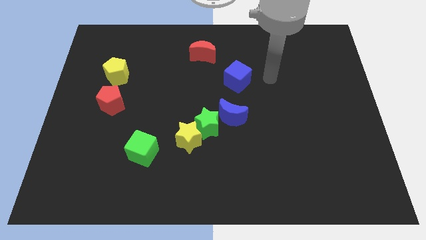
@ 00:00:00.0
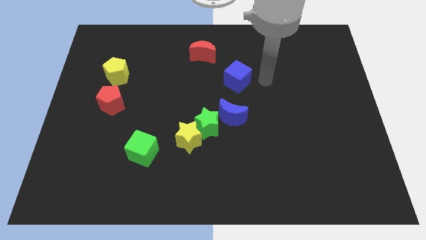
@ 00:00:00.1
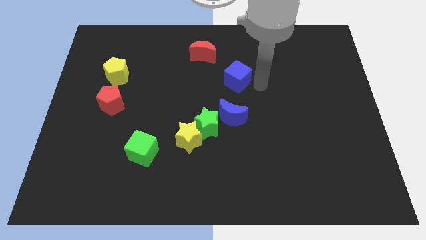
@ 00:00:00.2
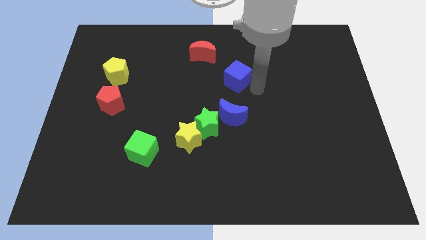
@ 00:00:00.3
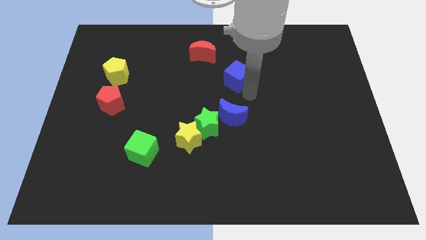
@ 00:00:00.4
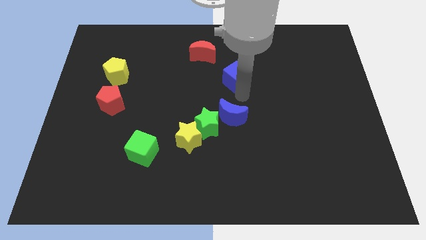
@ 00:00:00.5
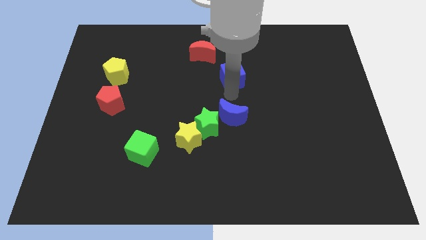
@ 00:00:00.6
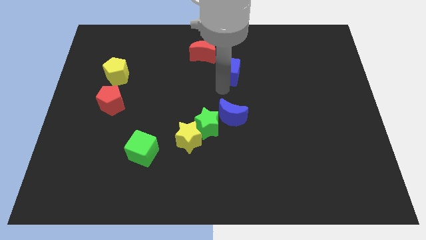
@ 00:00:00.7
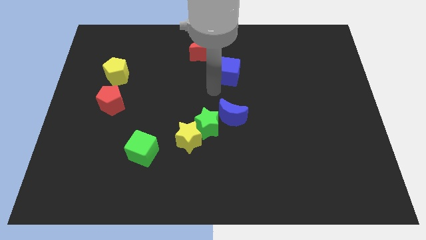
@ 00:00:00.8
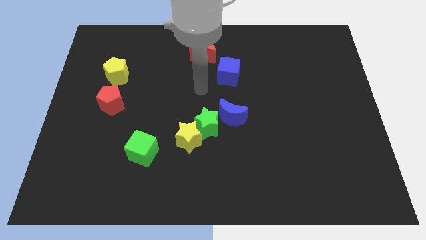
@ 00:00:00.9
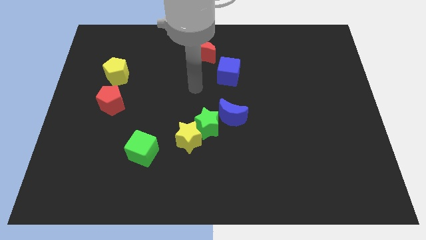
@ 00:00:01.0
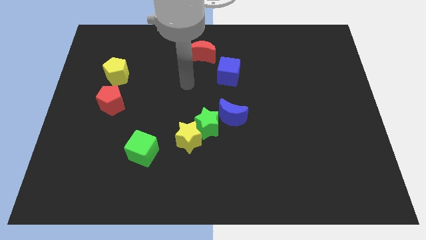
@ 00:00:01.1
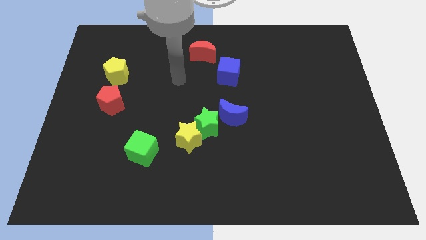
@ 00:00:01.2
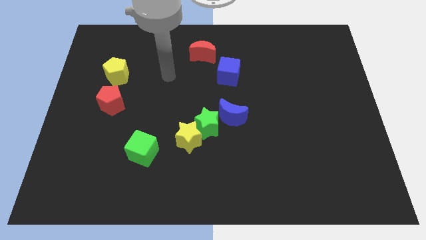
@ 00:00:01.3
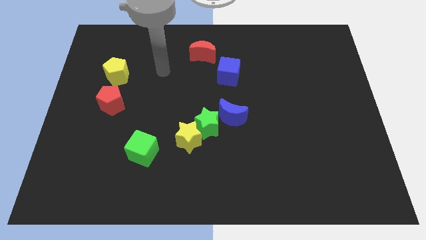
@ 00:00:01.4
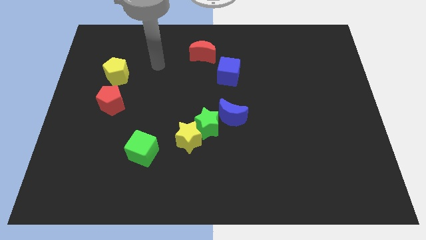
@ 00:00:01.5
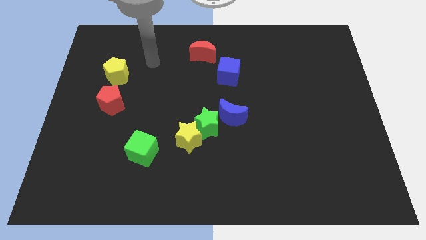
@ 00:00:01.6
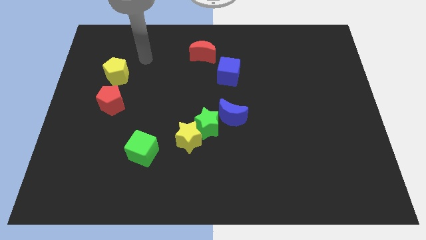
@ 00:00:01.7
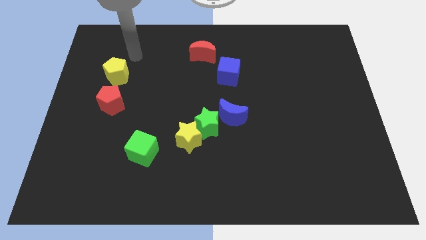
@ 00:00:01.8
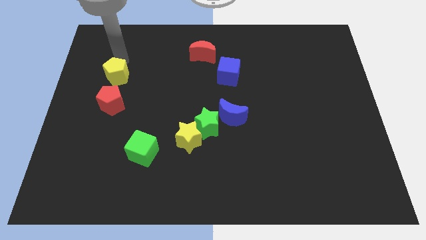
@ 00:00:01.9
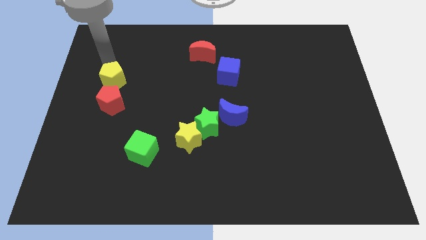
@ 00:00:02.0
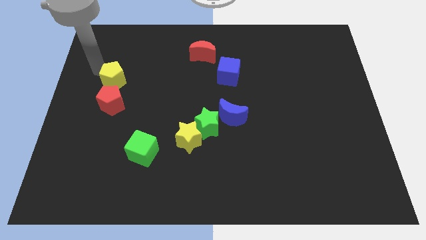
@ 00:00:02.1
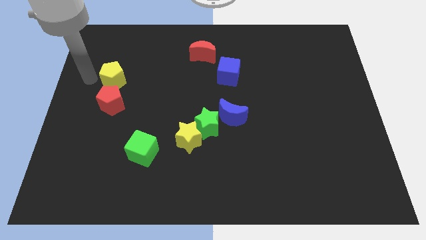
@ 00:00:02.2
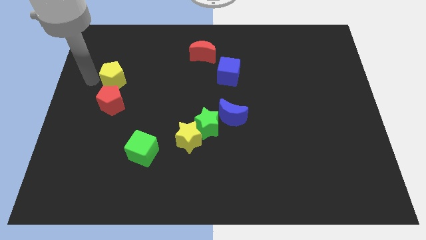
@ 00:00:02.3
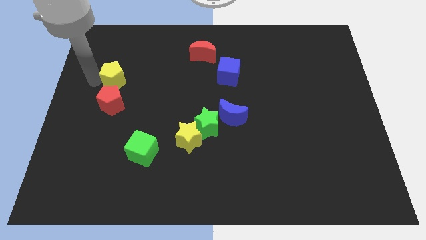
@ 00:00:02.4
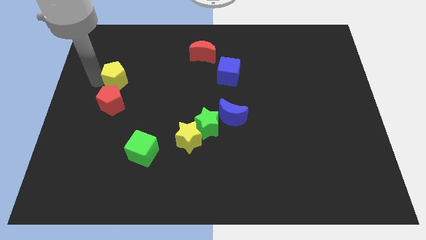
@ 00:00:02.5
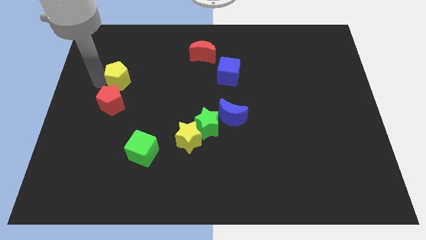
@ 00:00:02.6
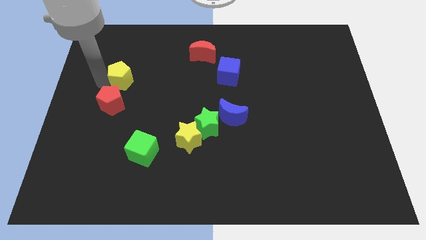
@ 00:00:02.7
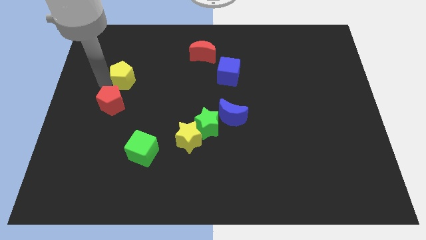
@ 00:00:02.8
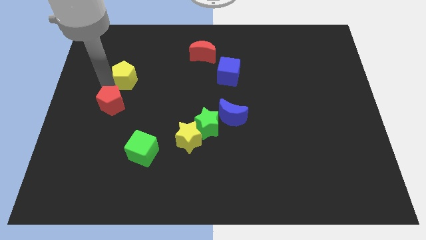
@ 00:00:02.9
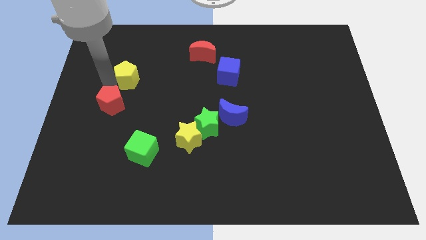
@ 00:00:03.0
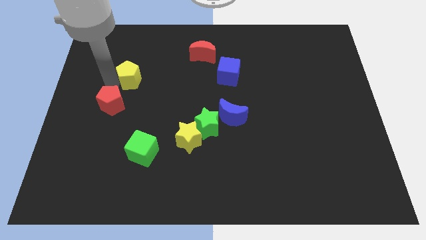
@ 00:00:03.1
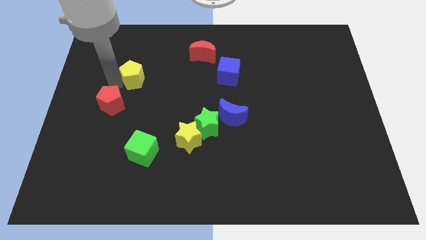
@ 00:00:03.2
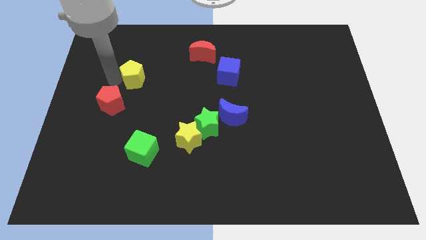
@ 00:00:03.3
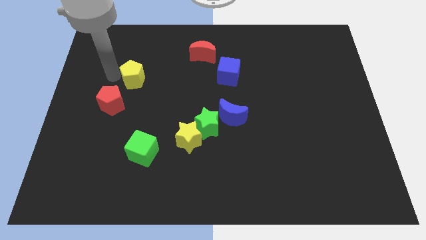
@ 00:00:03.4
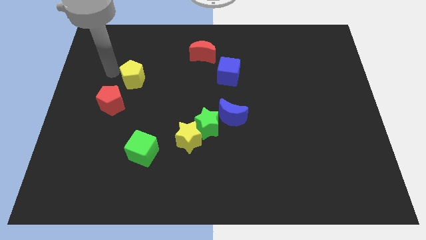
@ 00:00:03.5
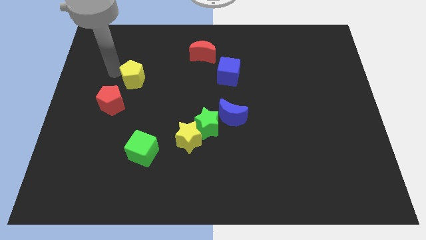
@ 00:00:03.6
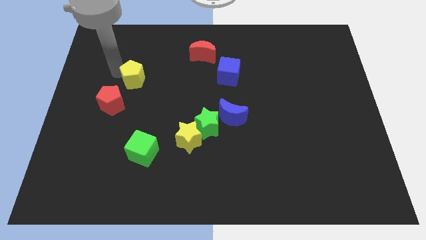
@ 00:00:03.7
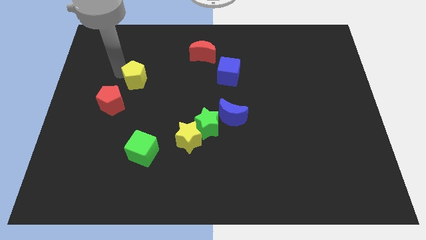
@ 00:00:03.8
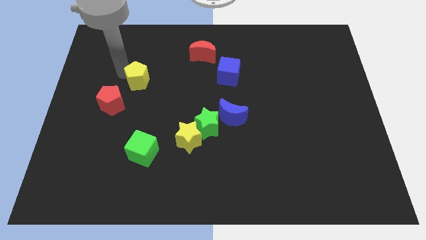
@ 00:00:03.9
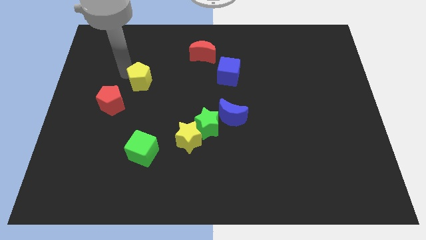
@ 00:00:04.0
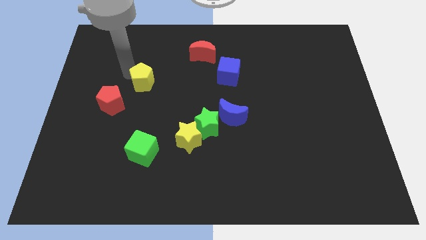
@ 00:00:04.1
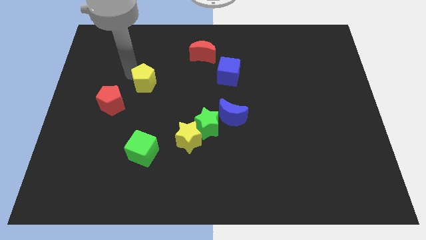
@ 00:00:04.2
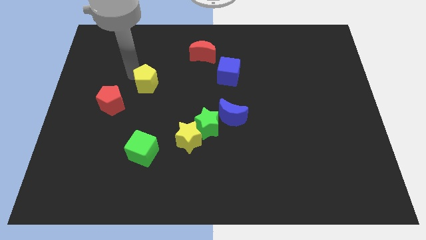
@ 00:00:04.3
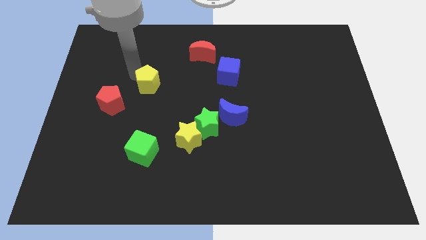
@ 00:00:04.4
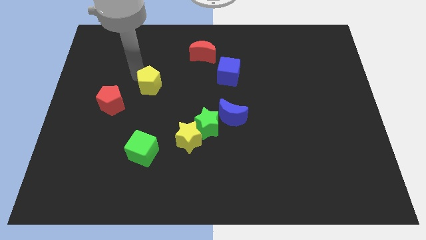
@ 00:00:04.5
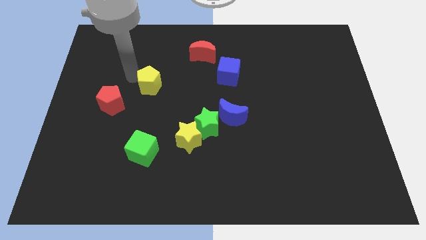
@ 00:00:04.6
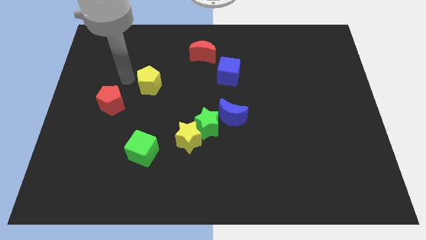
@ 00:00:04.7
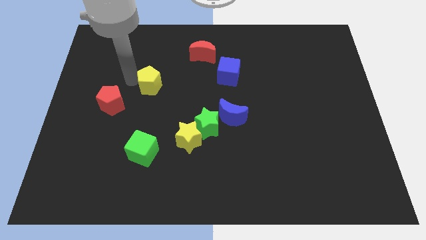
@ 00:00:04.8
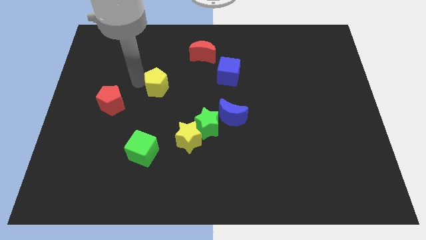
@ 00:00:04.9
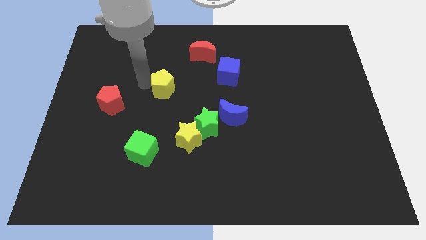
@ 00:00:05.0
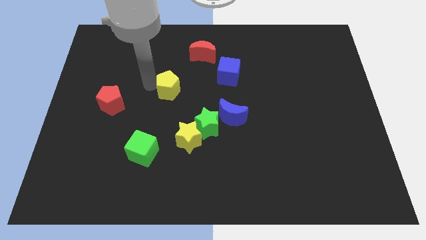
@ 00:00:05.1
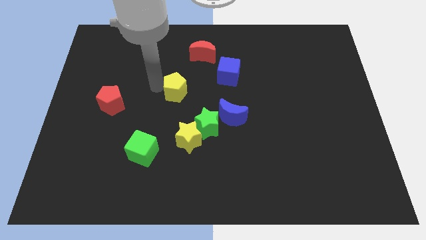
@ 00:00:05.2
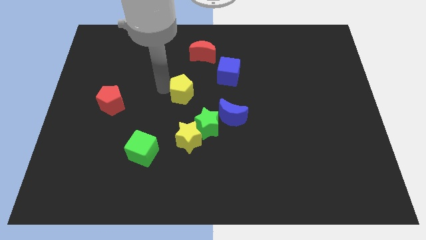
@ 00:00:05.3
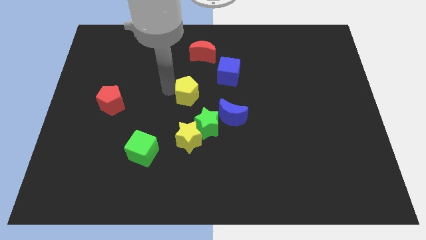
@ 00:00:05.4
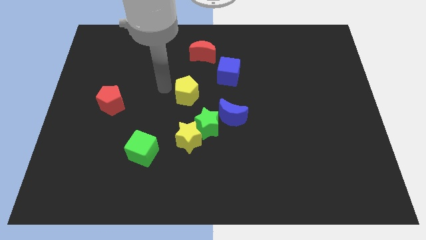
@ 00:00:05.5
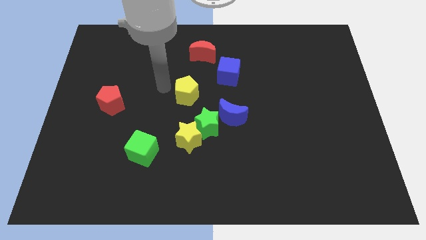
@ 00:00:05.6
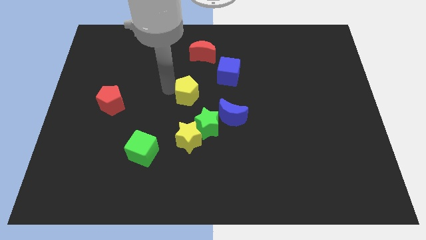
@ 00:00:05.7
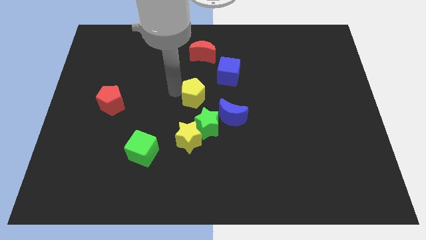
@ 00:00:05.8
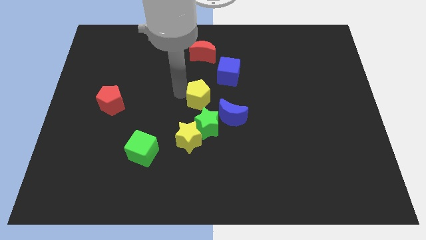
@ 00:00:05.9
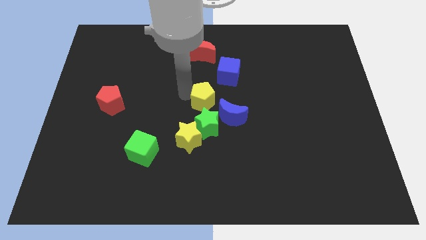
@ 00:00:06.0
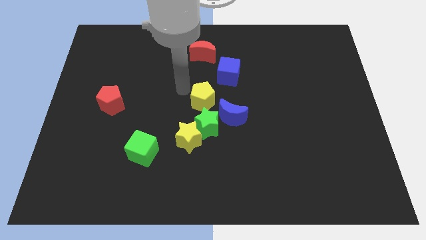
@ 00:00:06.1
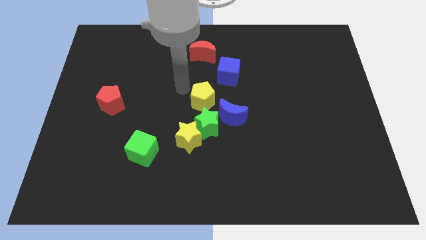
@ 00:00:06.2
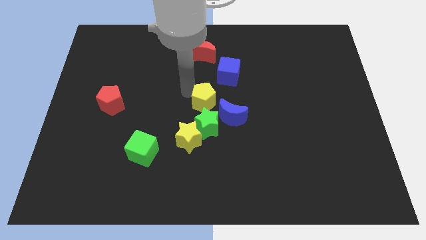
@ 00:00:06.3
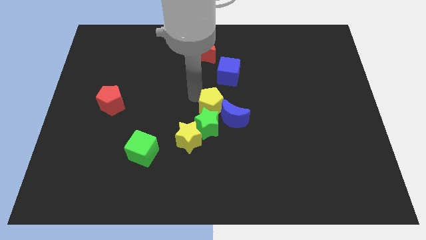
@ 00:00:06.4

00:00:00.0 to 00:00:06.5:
move the yellow pentagon close to the blue moon
